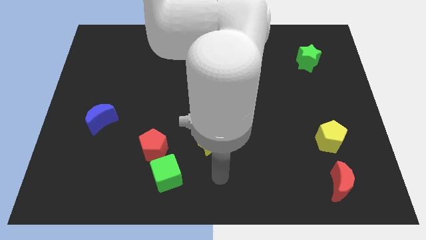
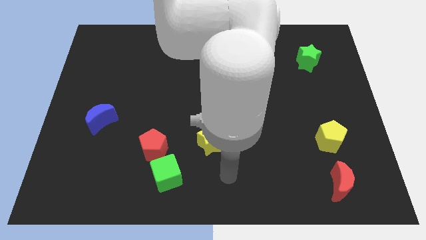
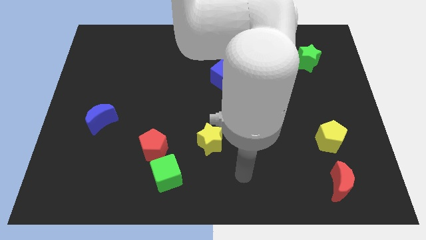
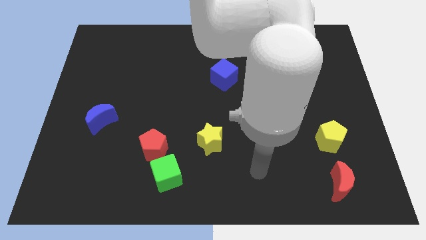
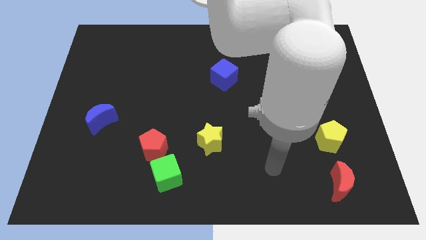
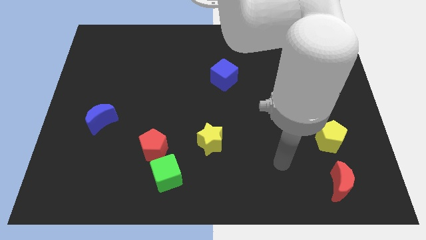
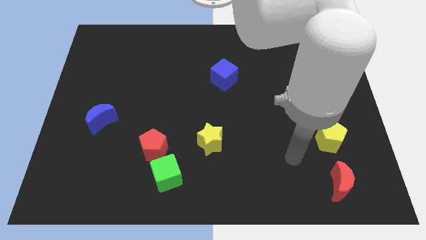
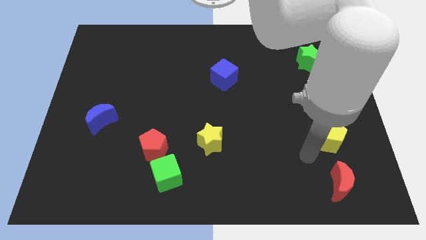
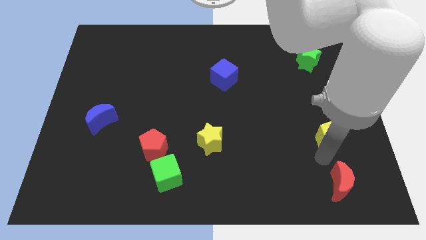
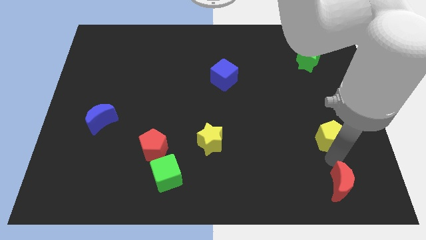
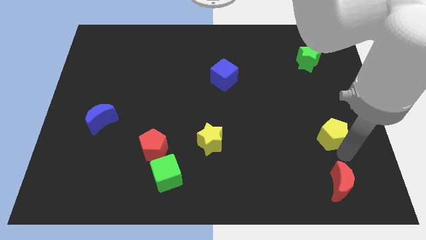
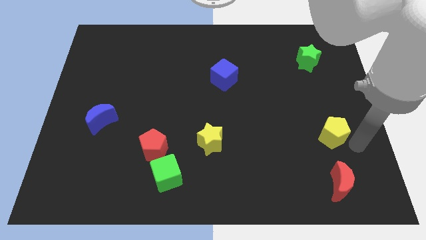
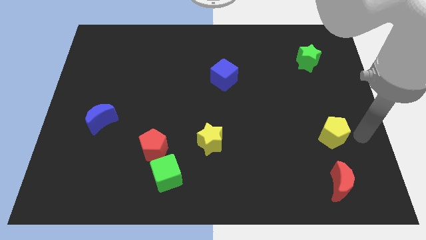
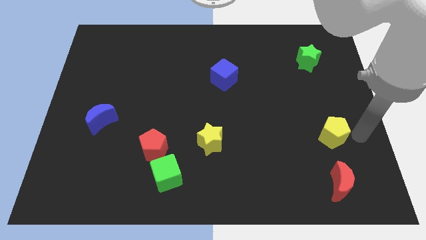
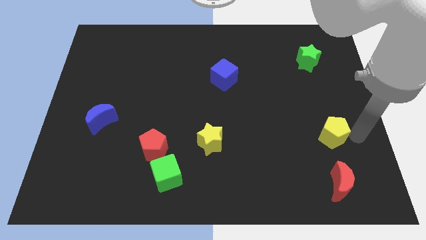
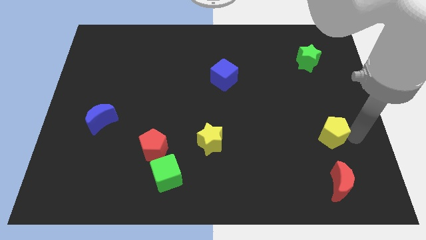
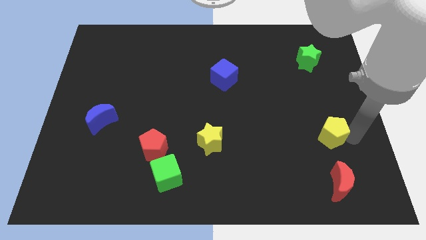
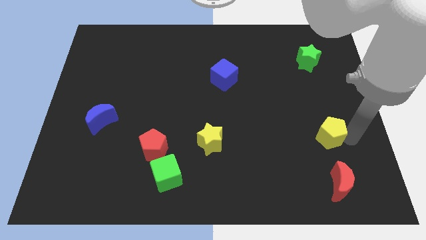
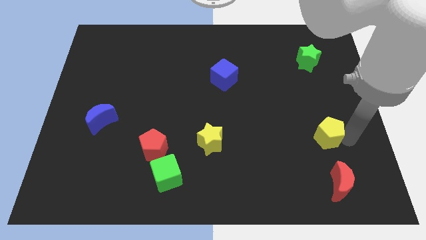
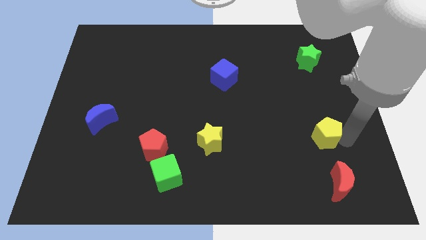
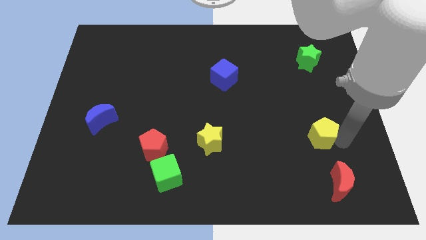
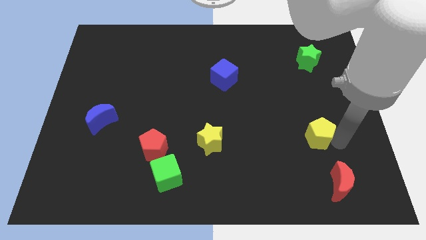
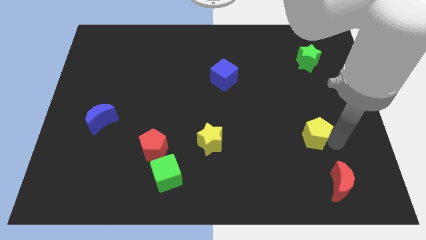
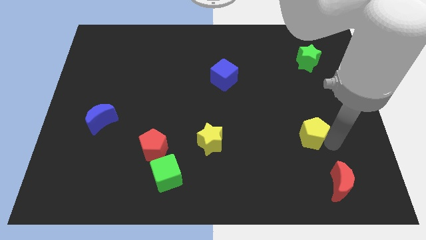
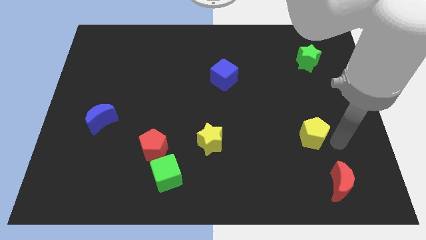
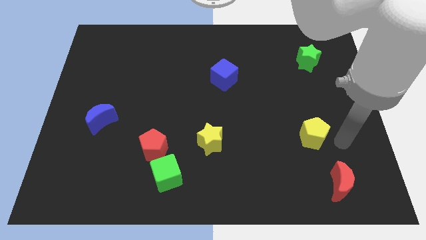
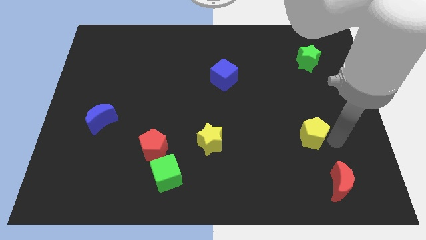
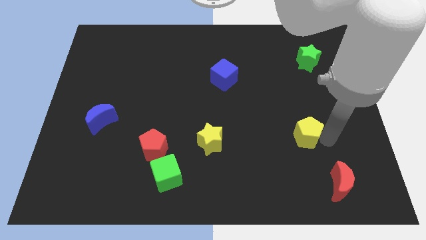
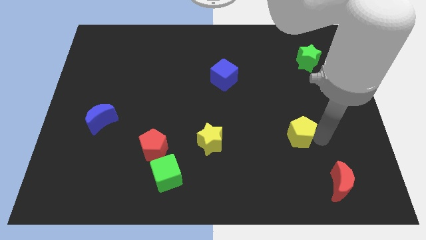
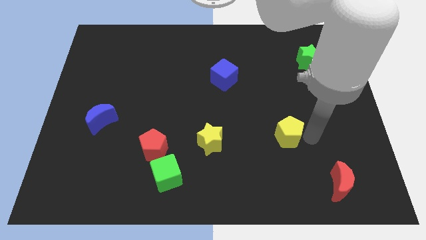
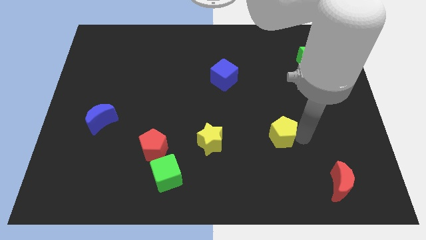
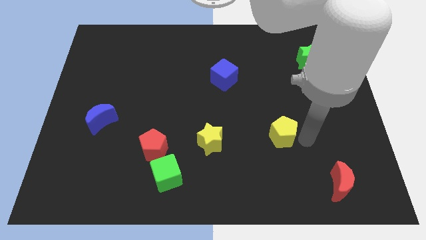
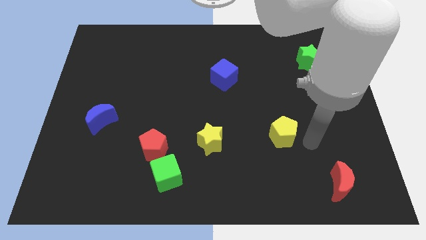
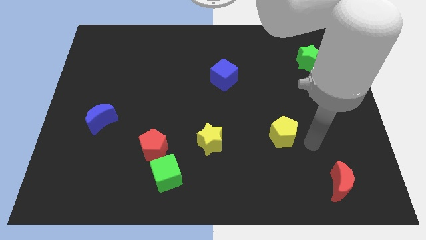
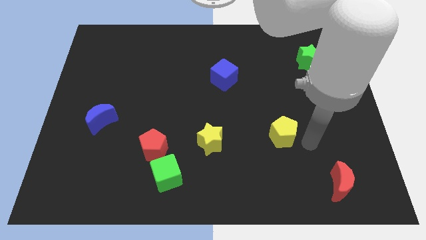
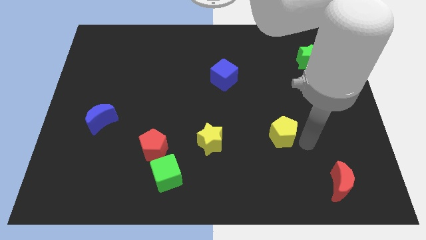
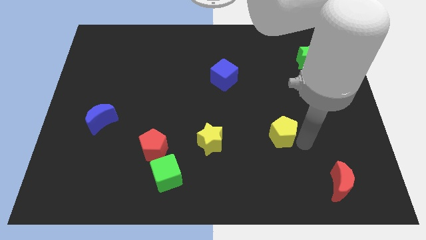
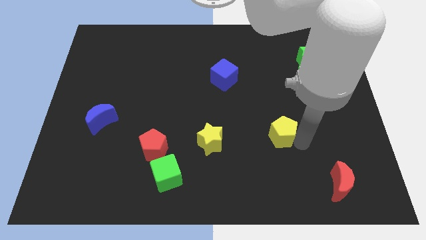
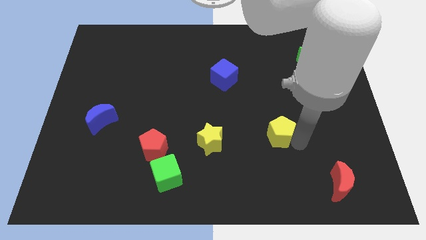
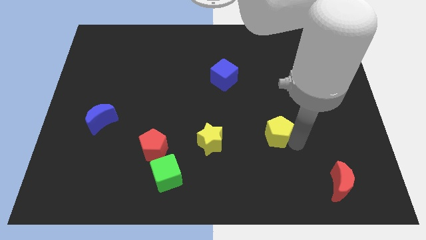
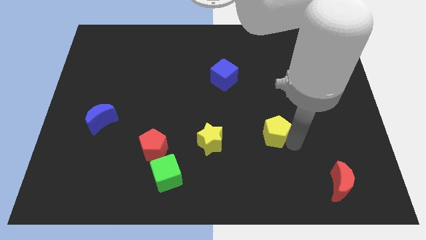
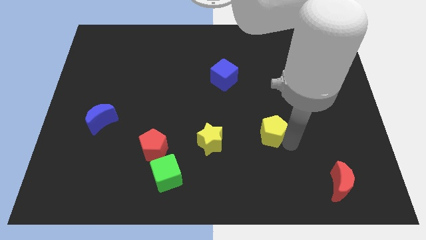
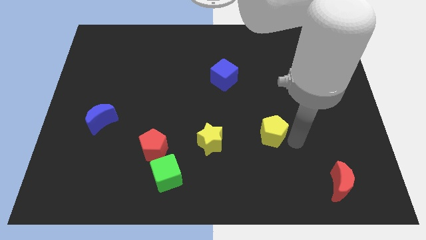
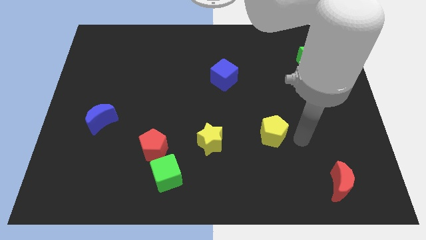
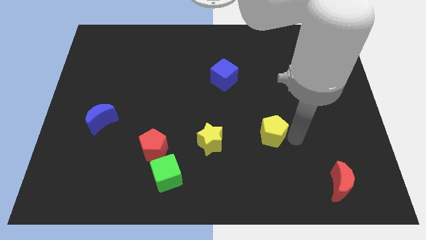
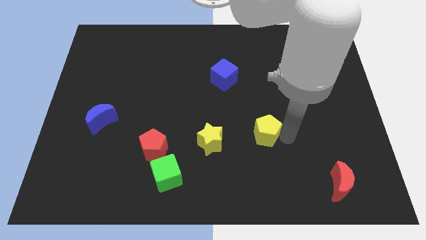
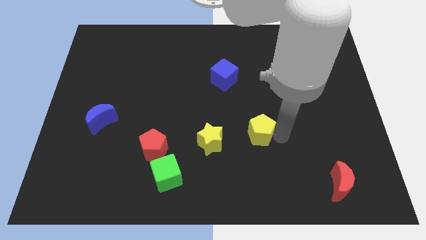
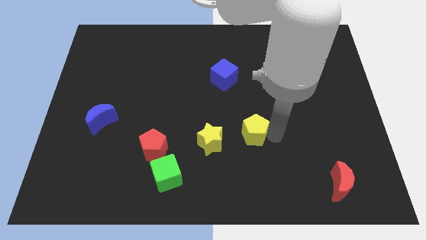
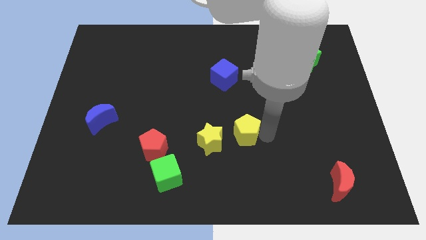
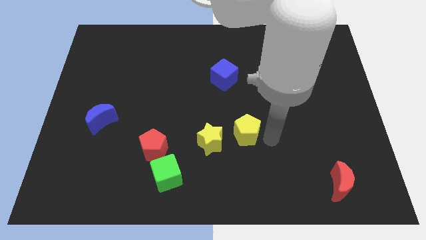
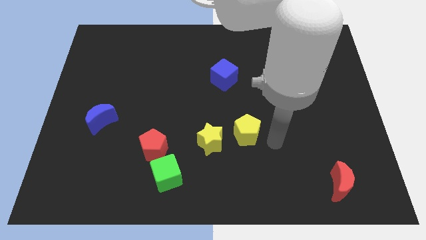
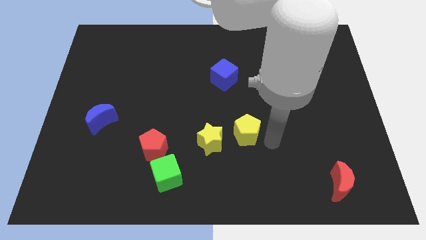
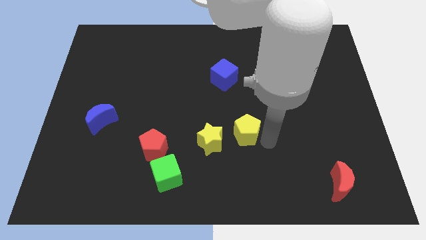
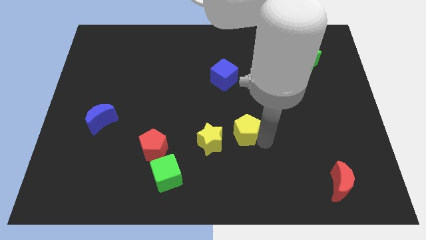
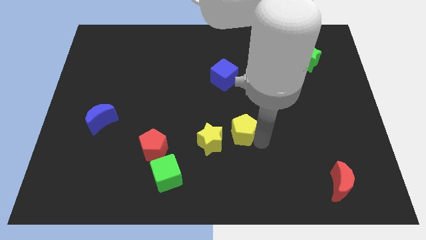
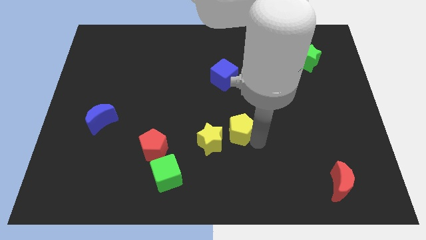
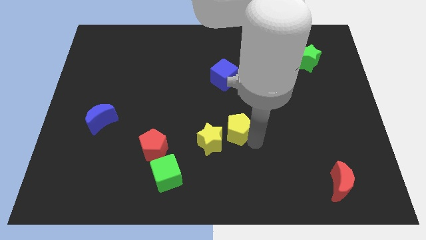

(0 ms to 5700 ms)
push the yellow pentagon left

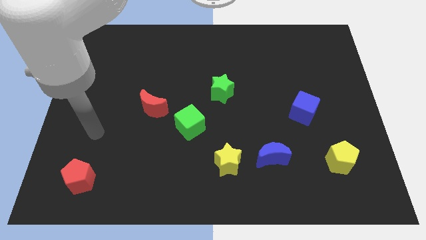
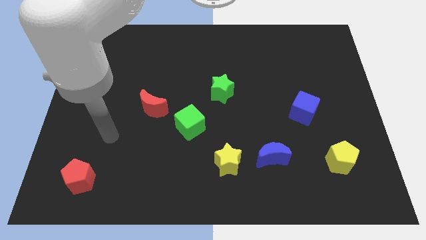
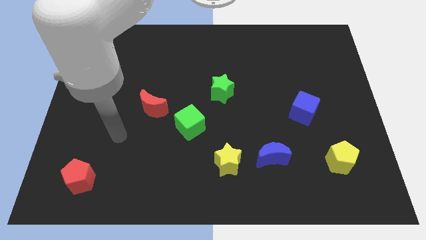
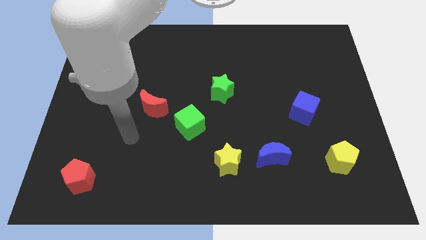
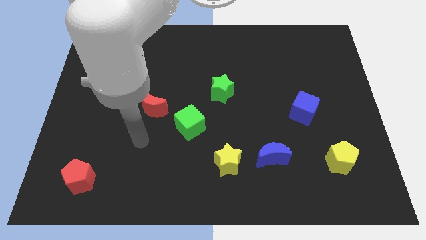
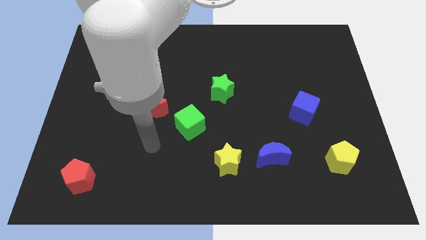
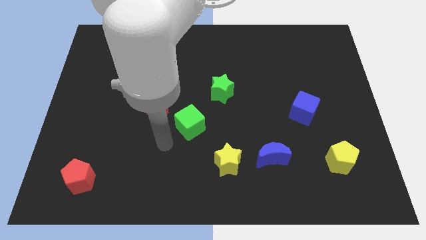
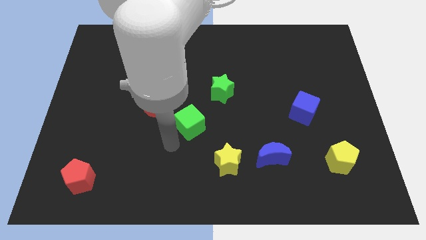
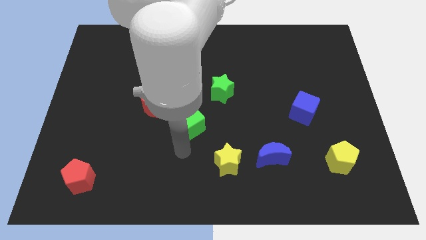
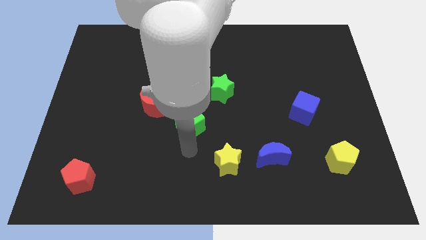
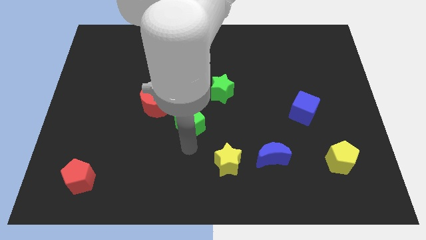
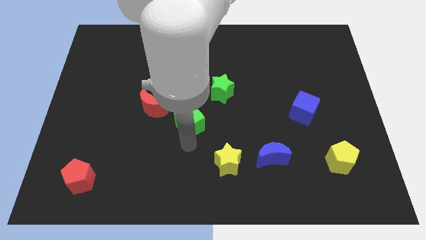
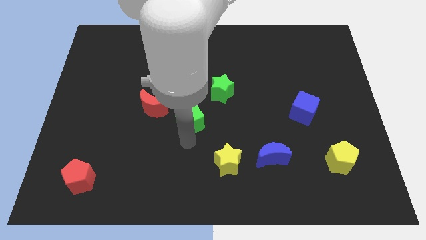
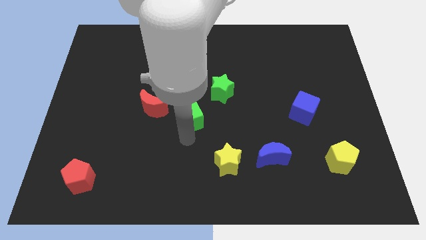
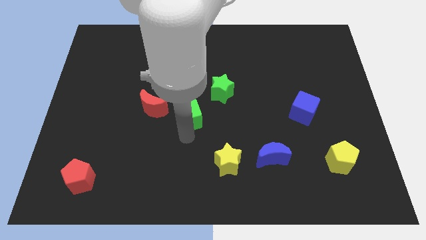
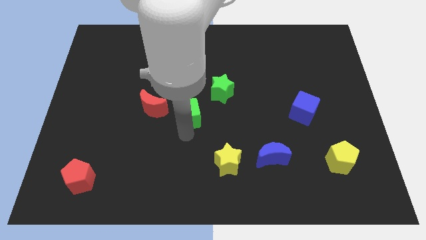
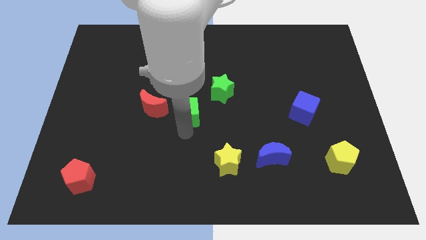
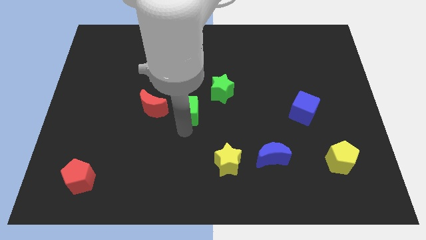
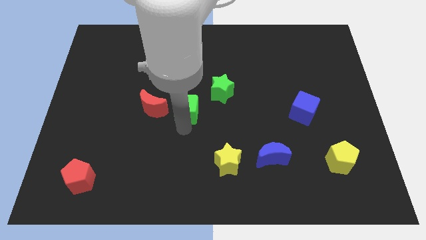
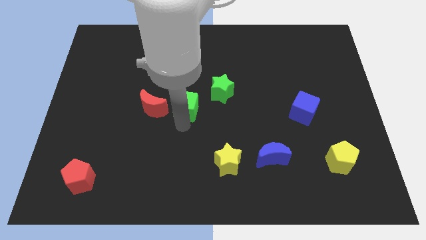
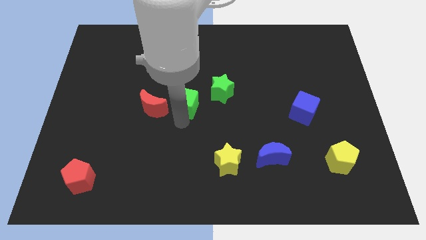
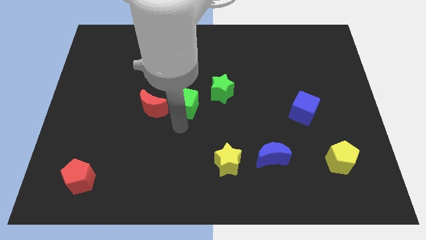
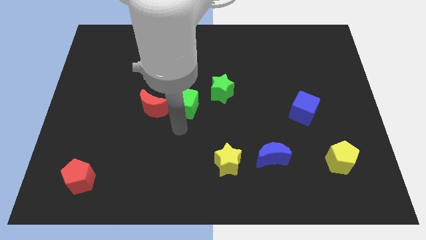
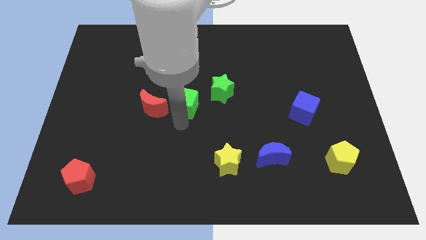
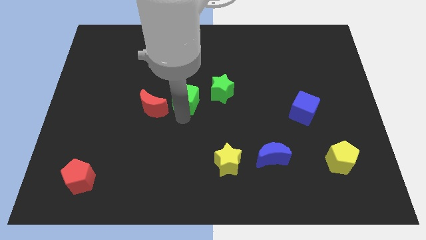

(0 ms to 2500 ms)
slightly slide the green cube up

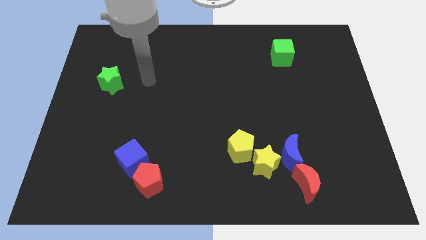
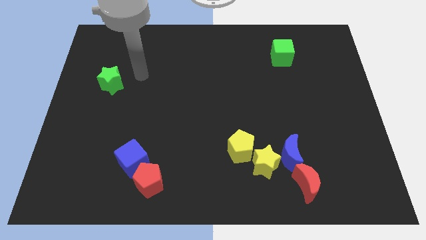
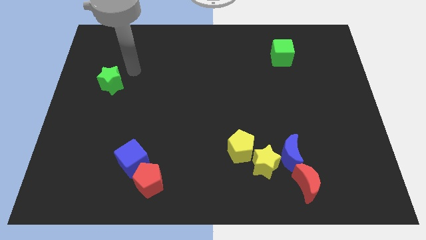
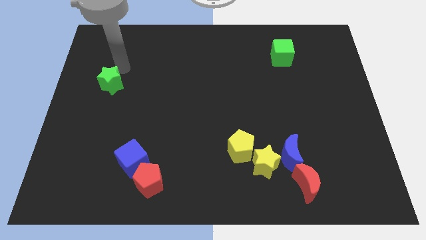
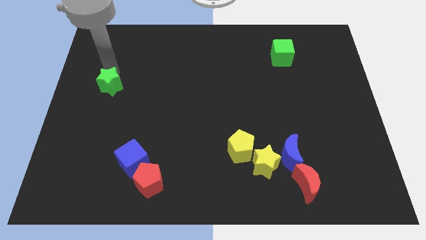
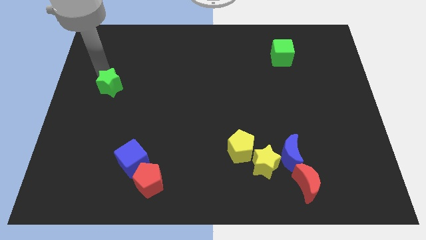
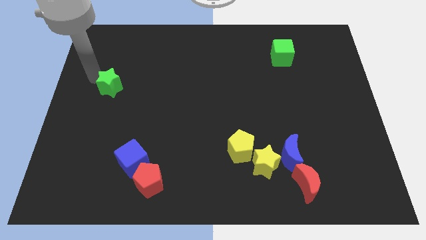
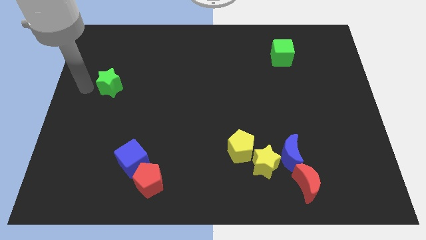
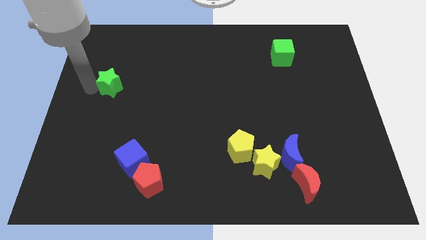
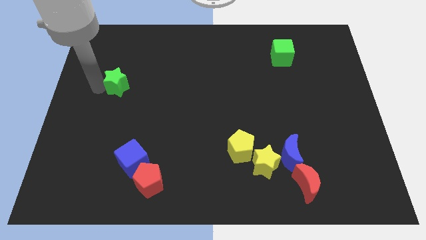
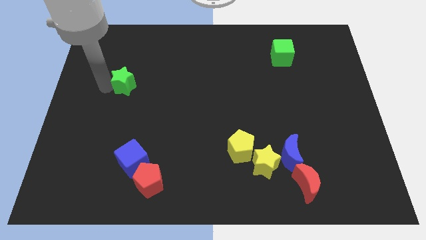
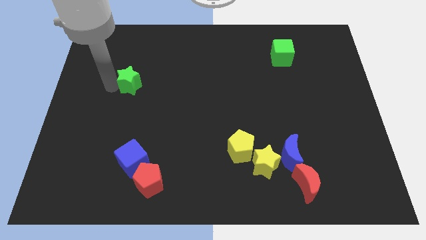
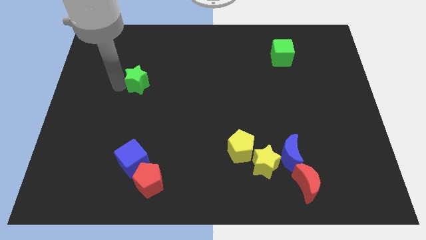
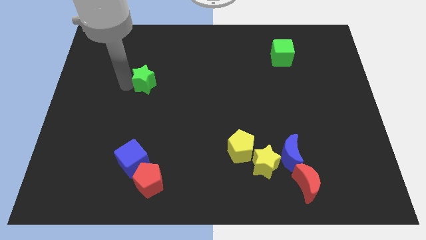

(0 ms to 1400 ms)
move the green star a bit right
